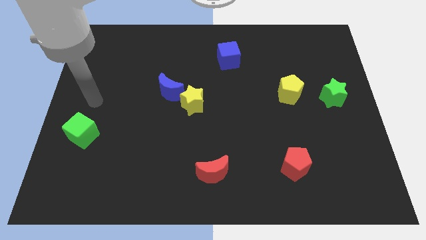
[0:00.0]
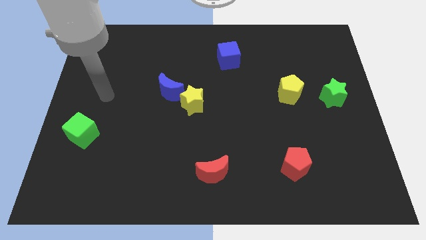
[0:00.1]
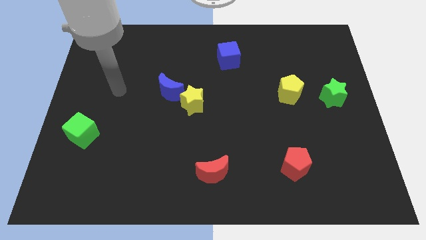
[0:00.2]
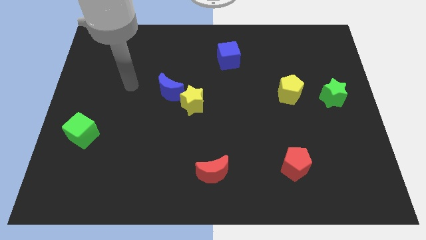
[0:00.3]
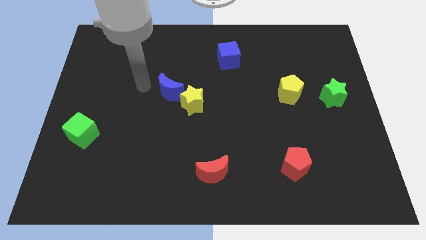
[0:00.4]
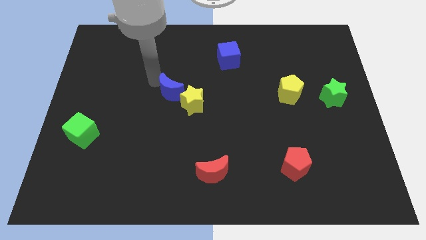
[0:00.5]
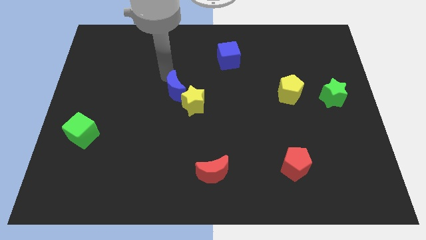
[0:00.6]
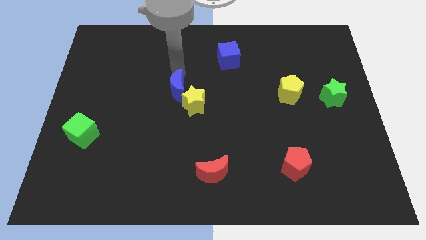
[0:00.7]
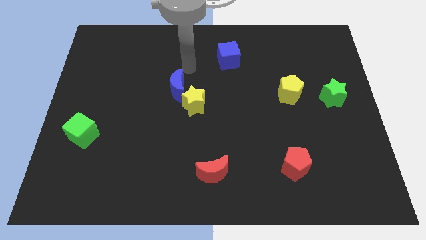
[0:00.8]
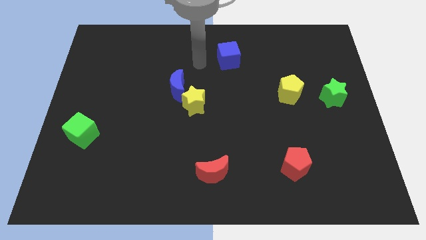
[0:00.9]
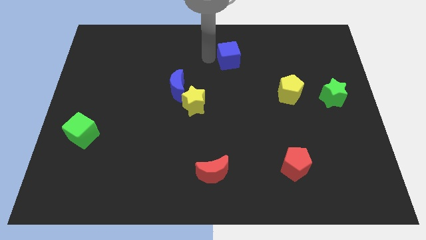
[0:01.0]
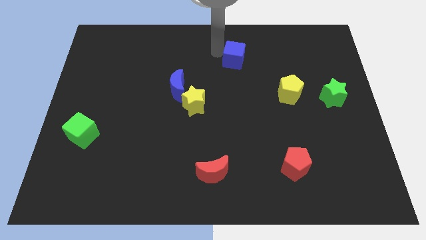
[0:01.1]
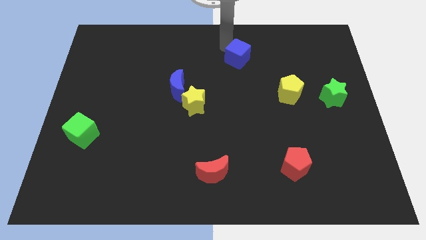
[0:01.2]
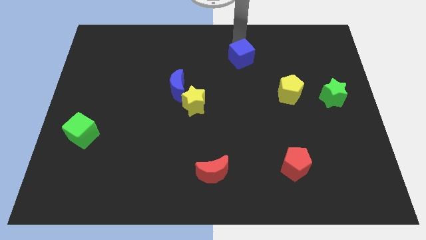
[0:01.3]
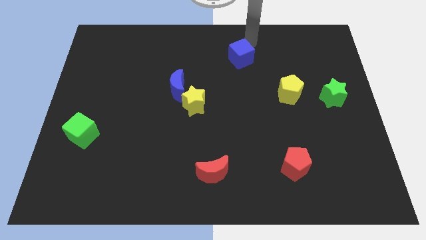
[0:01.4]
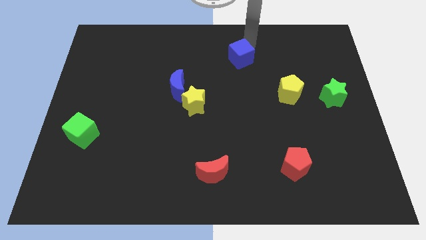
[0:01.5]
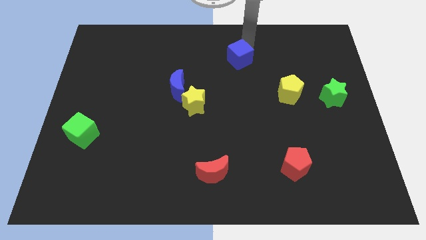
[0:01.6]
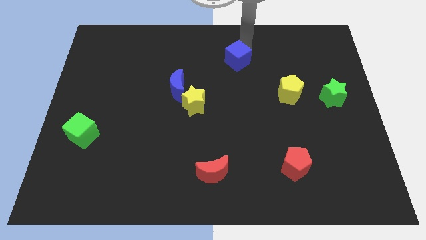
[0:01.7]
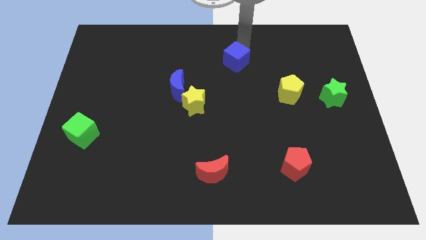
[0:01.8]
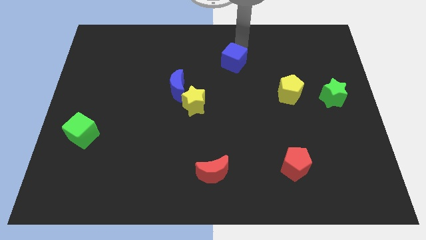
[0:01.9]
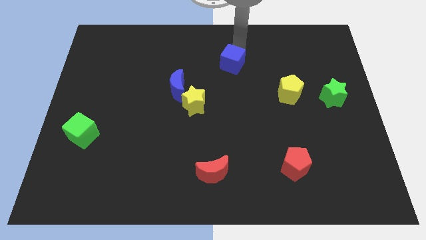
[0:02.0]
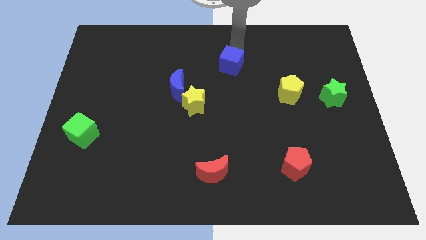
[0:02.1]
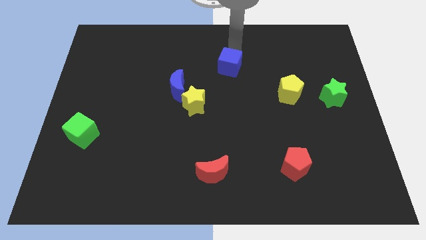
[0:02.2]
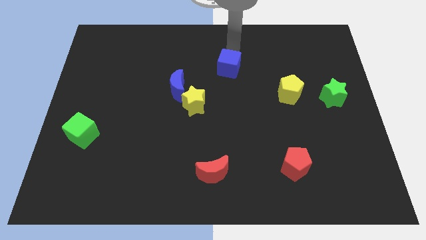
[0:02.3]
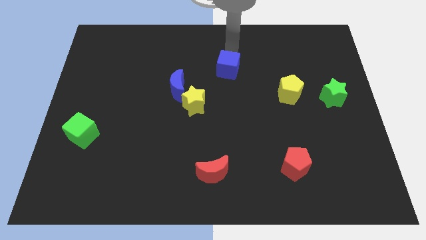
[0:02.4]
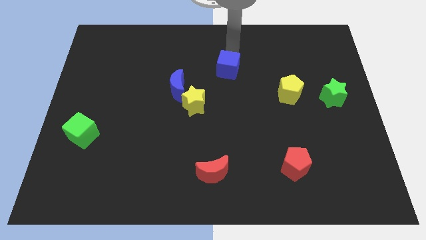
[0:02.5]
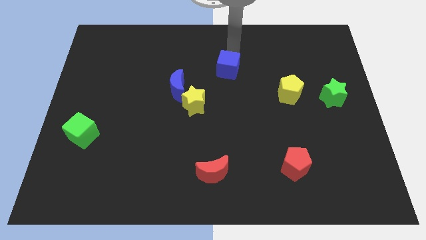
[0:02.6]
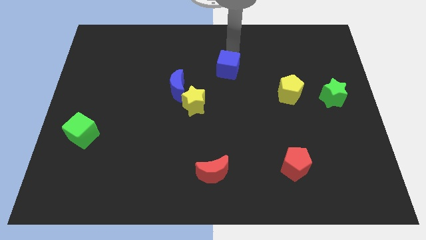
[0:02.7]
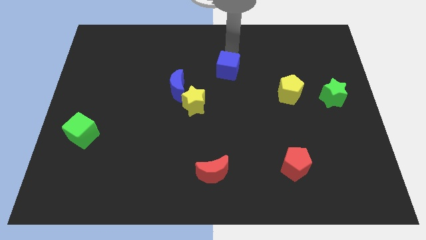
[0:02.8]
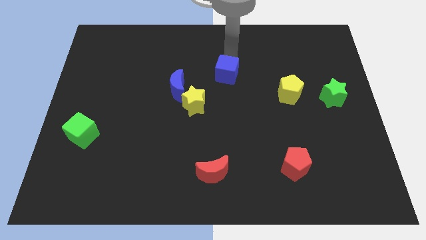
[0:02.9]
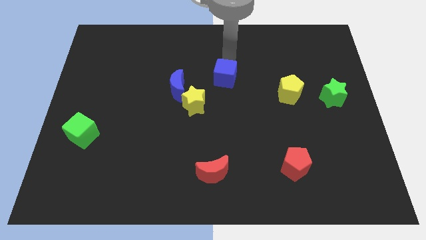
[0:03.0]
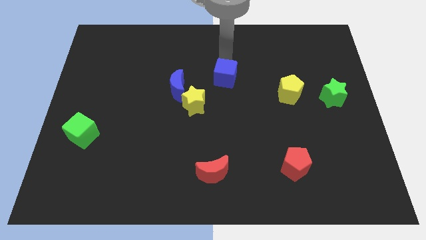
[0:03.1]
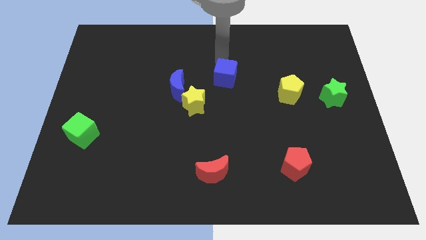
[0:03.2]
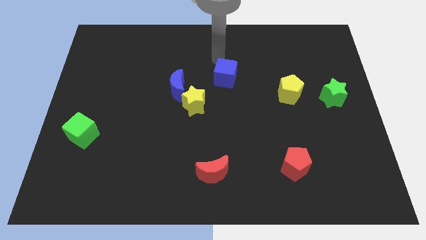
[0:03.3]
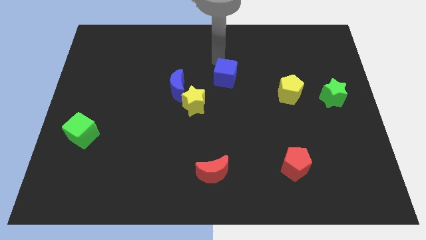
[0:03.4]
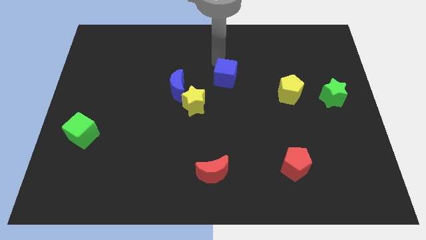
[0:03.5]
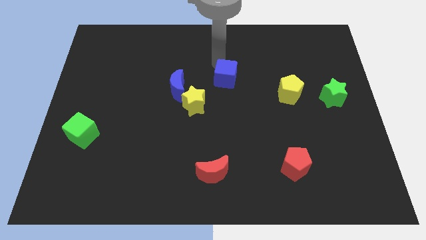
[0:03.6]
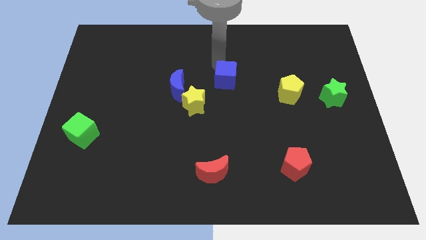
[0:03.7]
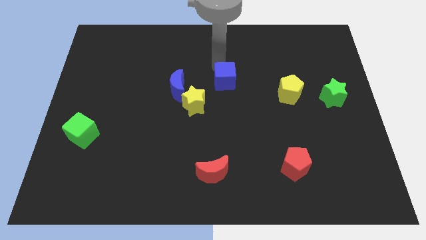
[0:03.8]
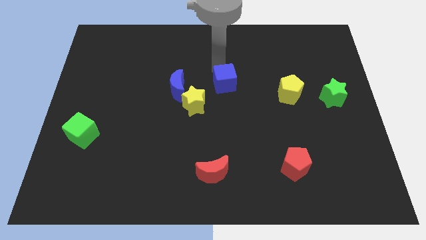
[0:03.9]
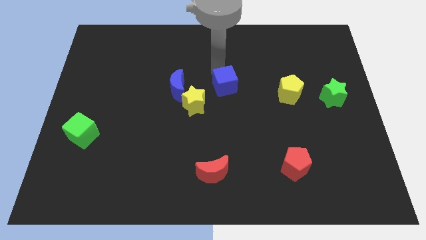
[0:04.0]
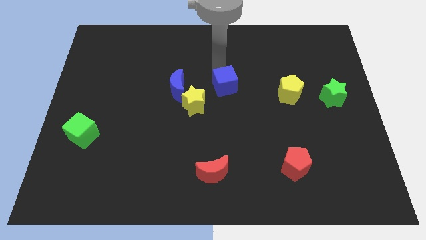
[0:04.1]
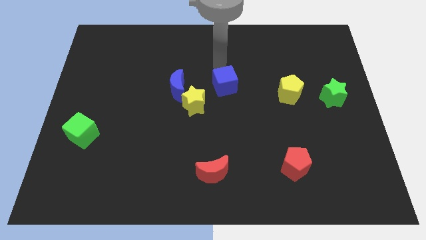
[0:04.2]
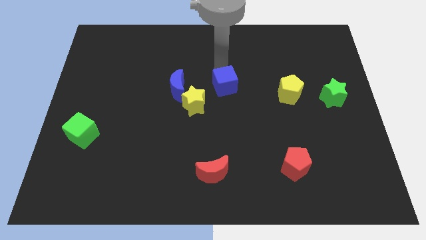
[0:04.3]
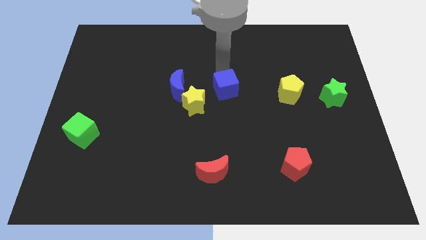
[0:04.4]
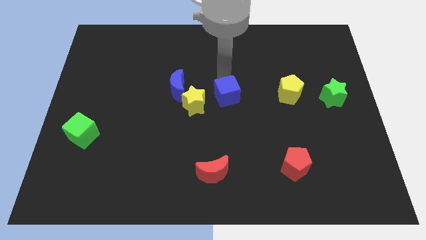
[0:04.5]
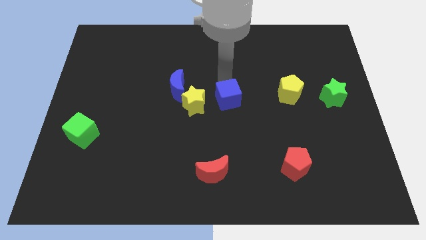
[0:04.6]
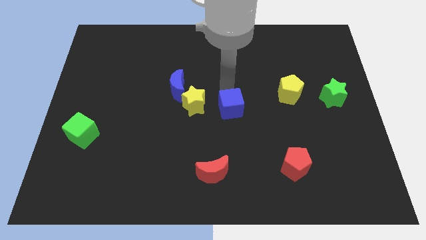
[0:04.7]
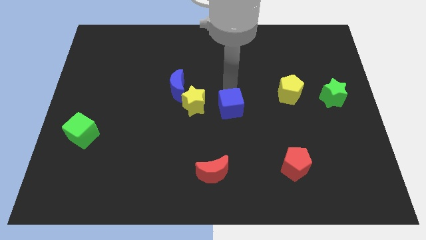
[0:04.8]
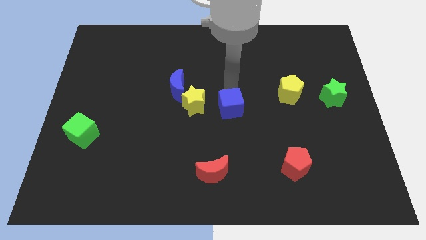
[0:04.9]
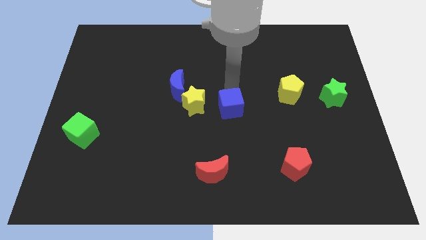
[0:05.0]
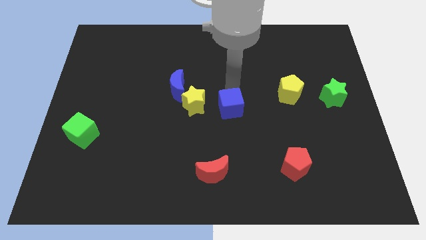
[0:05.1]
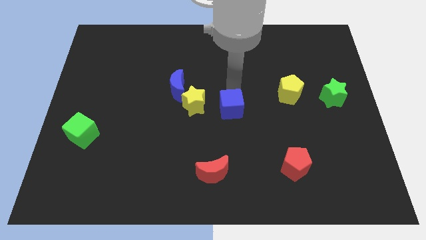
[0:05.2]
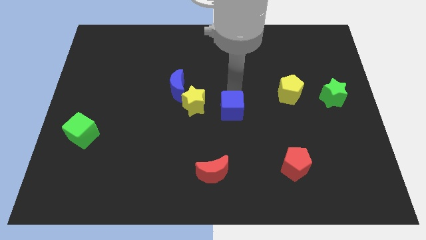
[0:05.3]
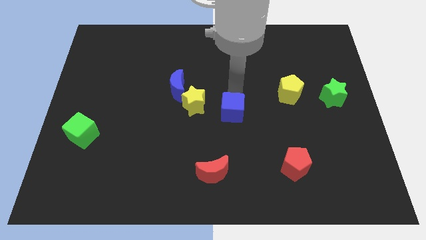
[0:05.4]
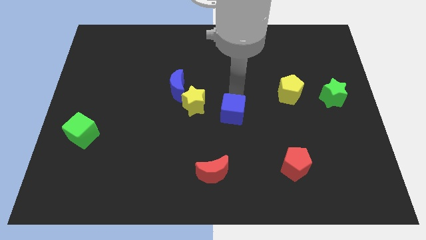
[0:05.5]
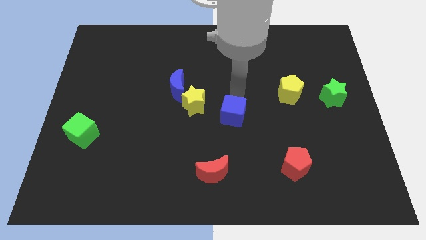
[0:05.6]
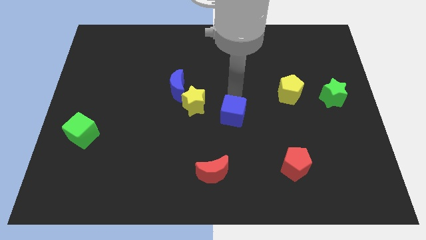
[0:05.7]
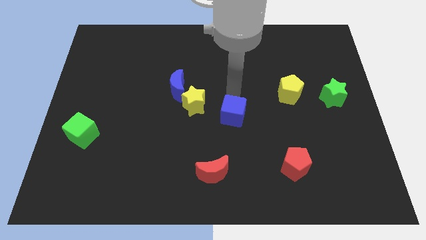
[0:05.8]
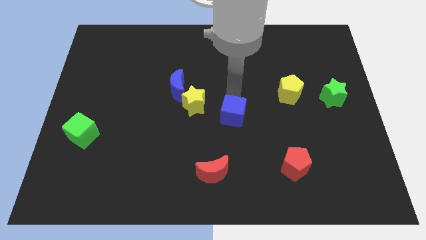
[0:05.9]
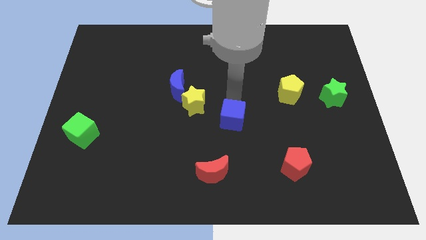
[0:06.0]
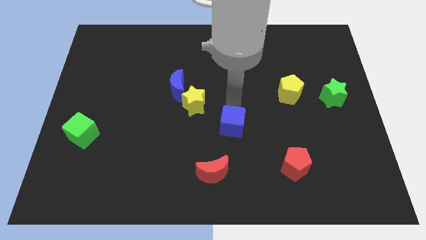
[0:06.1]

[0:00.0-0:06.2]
push the blue cube downwards

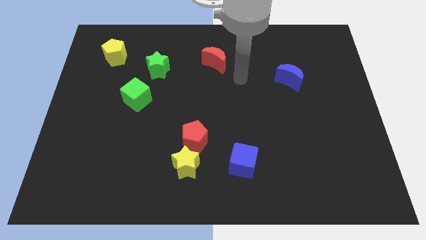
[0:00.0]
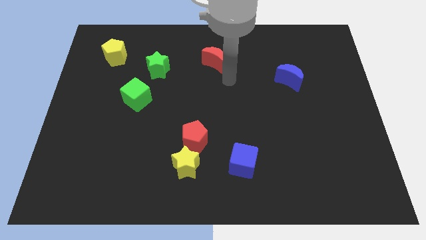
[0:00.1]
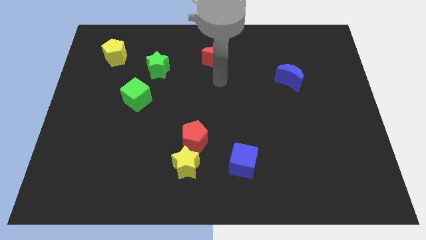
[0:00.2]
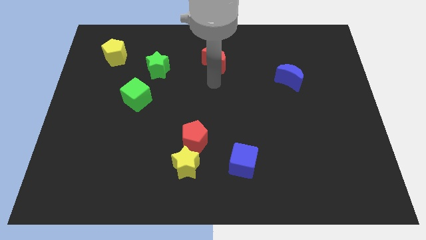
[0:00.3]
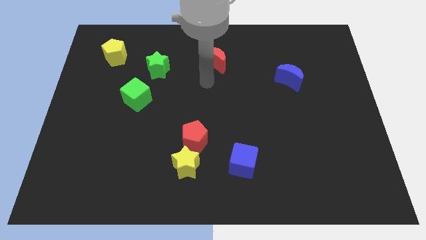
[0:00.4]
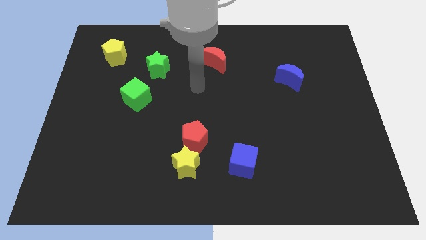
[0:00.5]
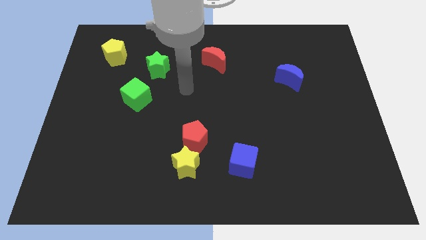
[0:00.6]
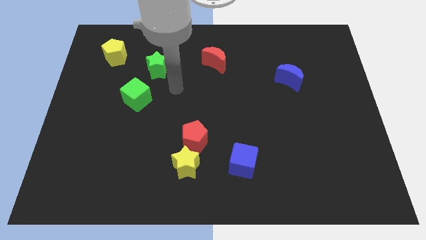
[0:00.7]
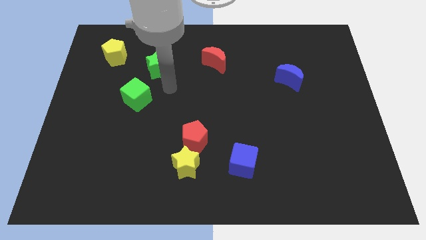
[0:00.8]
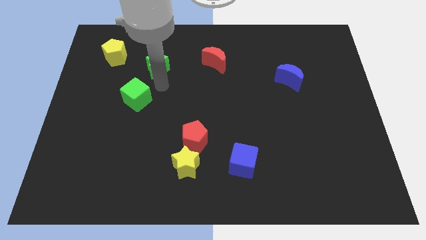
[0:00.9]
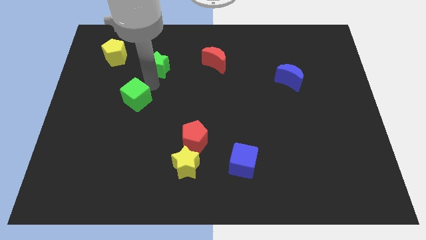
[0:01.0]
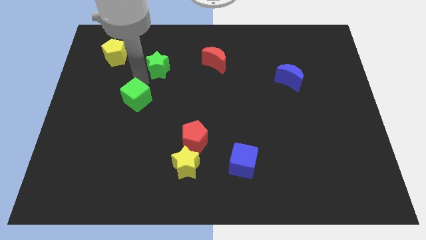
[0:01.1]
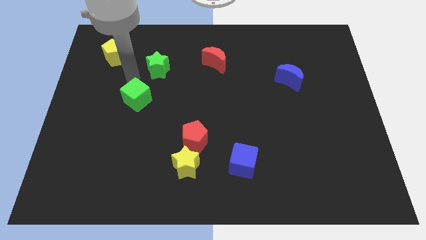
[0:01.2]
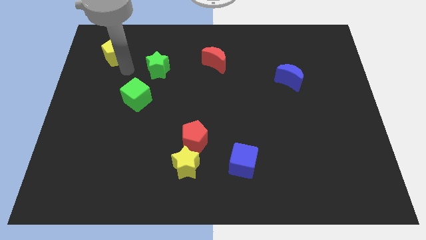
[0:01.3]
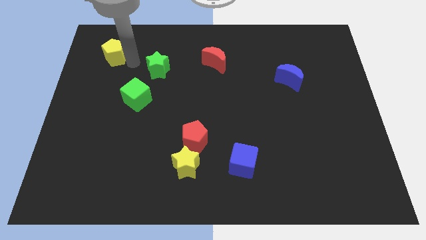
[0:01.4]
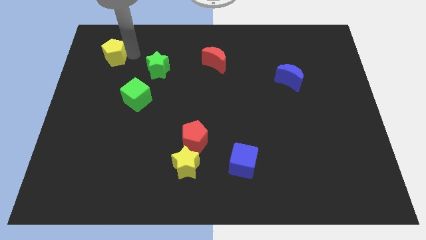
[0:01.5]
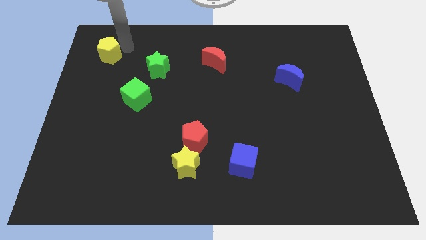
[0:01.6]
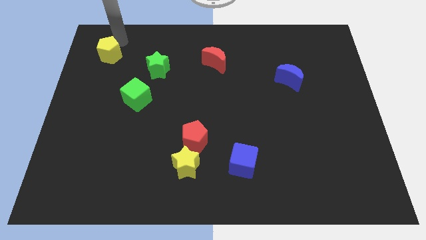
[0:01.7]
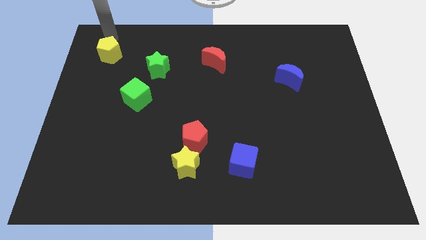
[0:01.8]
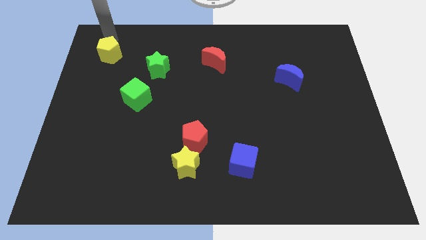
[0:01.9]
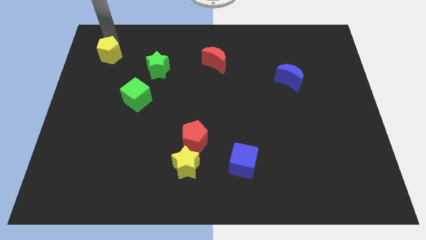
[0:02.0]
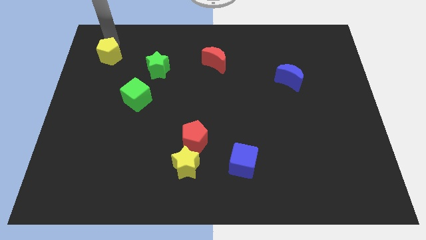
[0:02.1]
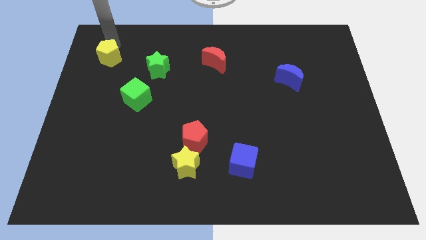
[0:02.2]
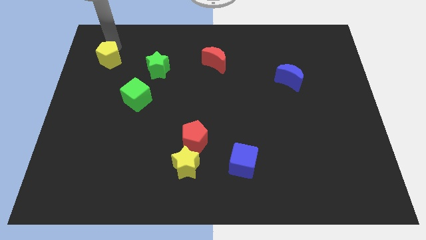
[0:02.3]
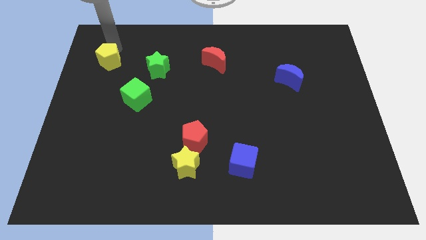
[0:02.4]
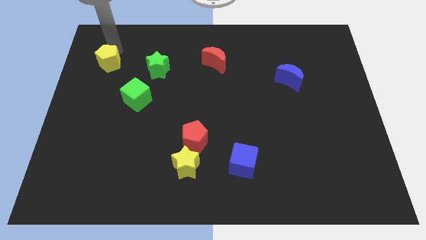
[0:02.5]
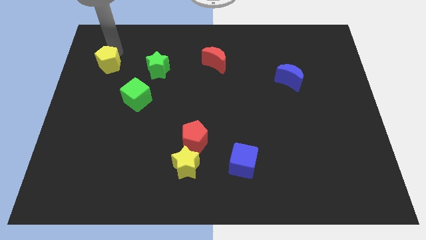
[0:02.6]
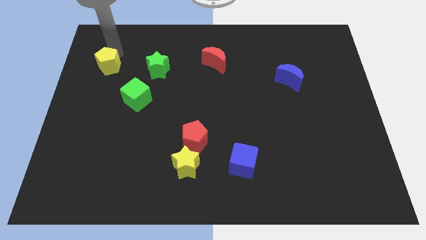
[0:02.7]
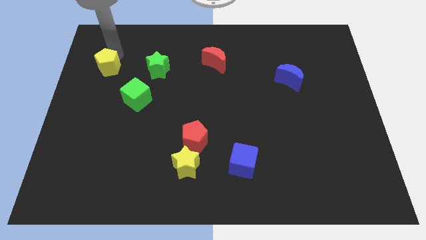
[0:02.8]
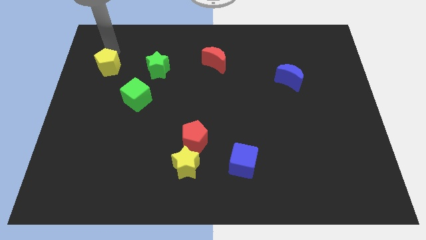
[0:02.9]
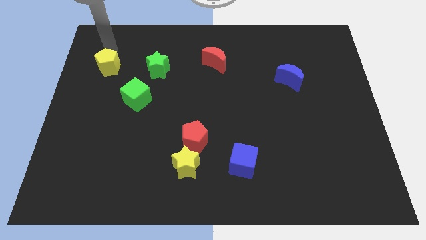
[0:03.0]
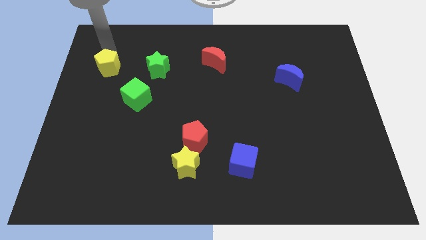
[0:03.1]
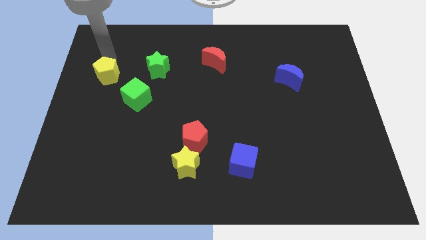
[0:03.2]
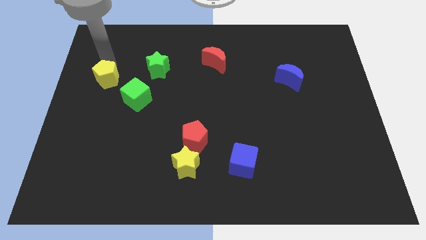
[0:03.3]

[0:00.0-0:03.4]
slide the yellow pentagon slightly down
